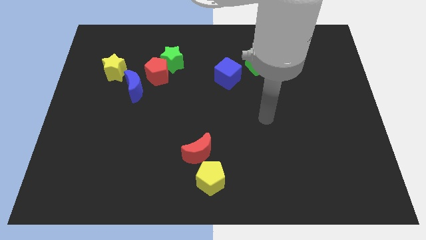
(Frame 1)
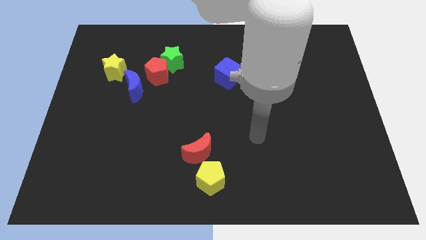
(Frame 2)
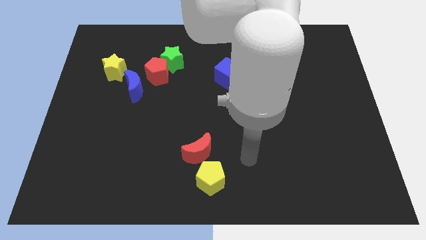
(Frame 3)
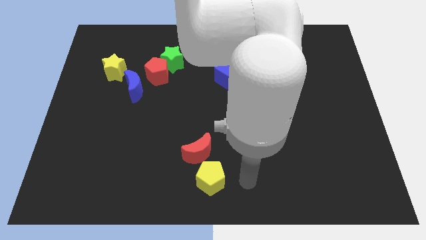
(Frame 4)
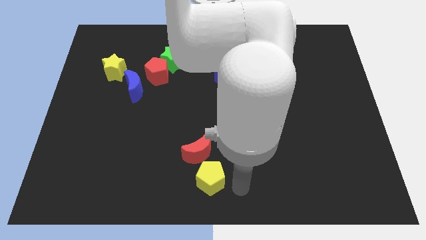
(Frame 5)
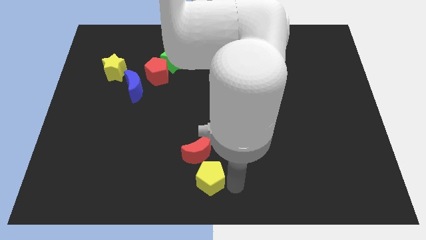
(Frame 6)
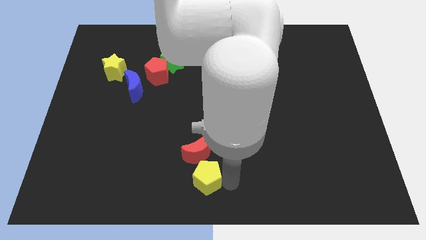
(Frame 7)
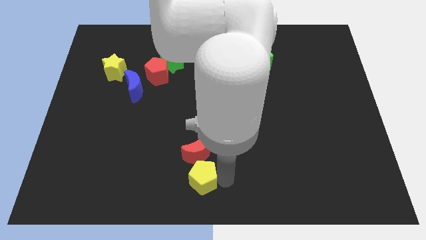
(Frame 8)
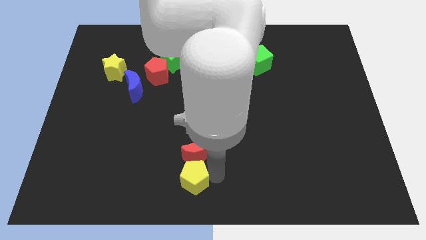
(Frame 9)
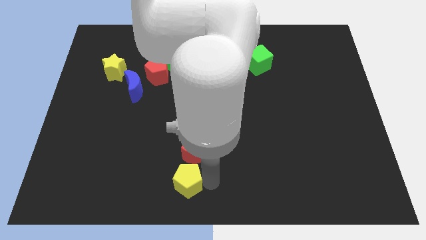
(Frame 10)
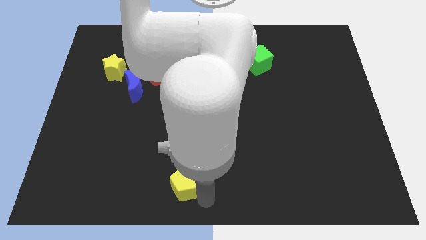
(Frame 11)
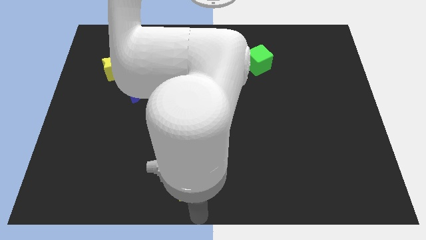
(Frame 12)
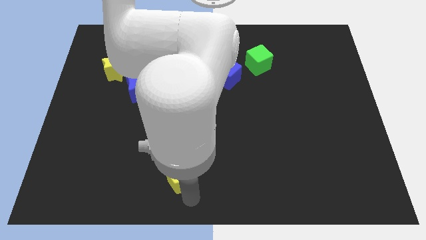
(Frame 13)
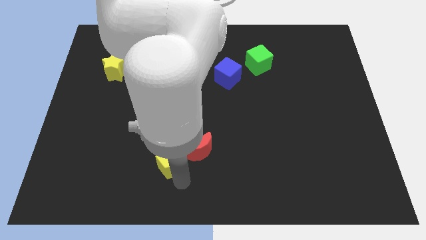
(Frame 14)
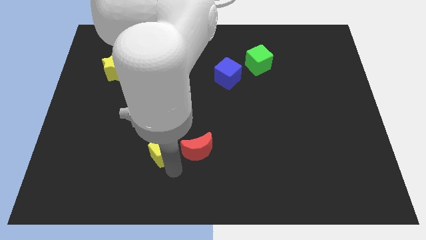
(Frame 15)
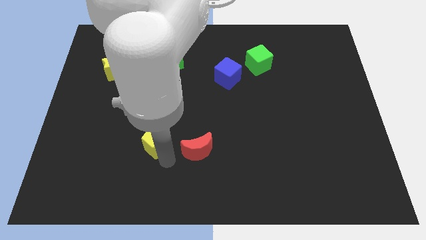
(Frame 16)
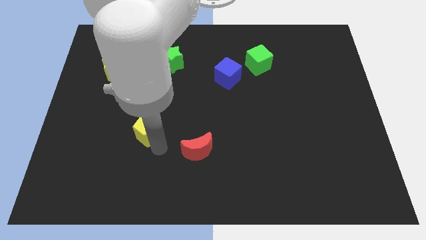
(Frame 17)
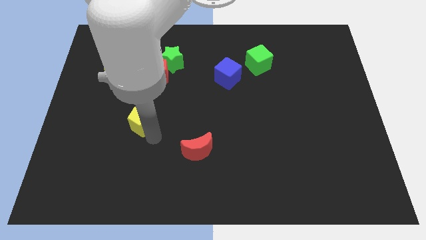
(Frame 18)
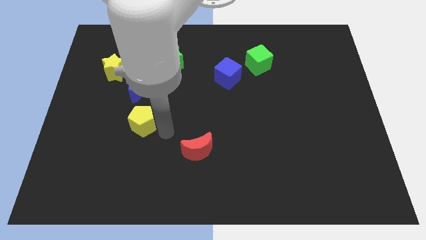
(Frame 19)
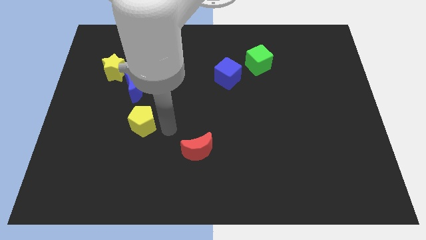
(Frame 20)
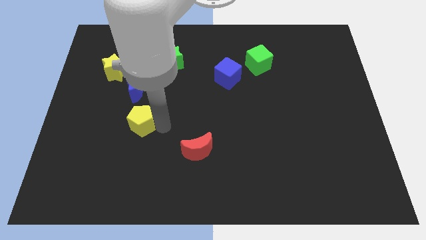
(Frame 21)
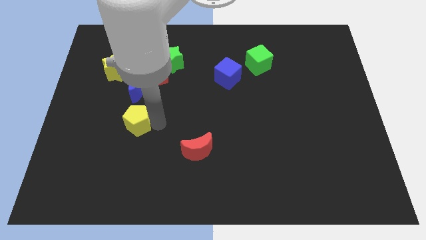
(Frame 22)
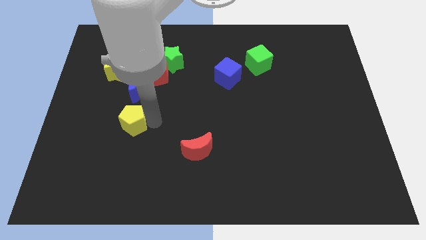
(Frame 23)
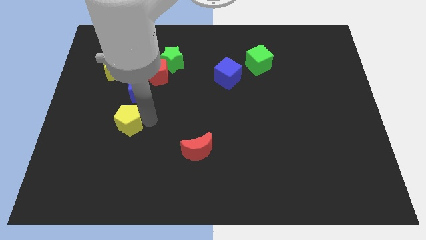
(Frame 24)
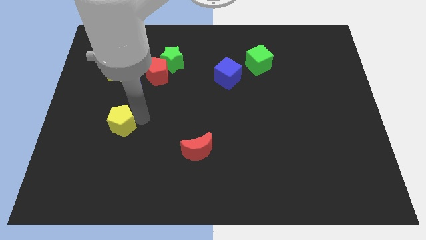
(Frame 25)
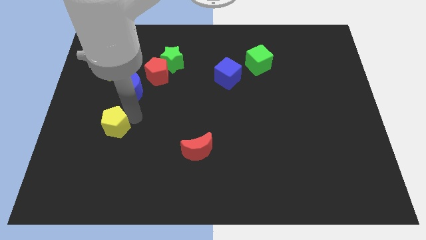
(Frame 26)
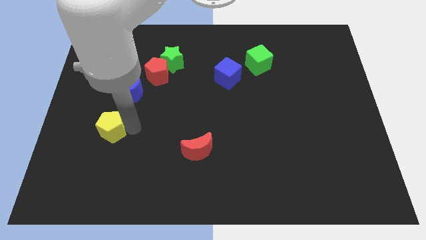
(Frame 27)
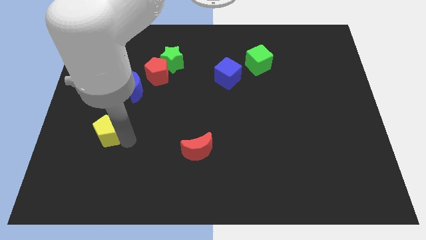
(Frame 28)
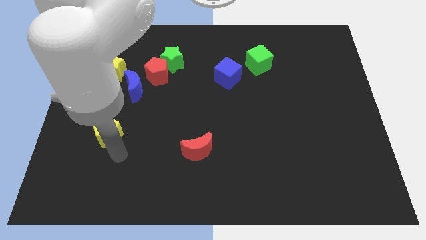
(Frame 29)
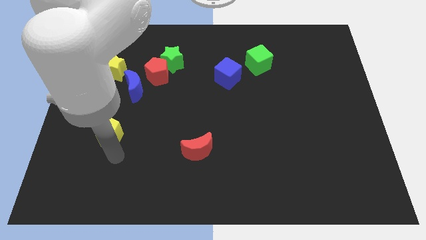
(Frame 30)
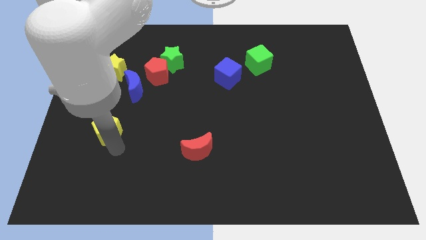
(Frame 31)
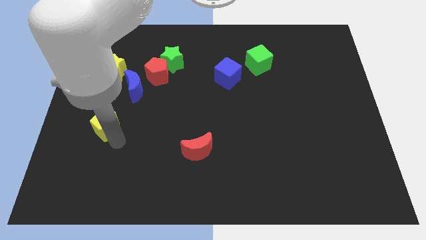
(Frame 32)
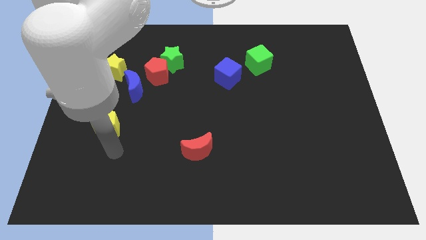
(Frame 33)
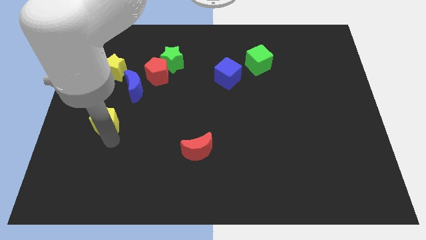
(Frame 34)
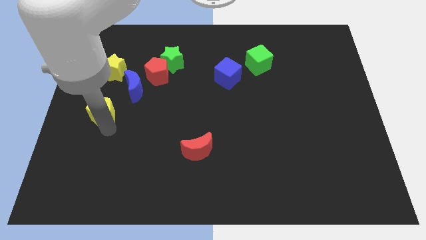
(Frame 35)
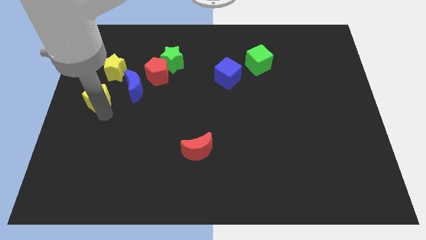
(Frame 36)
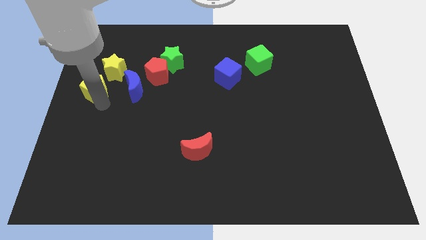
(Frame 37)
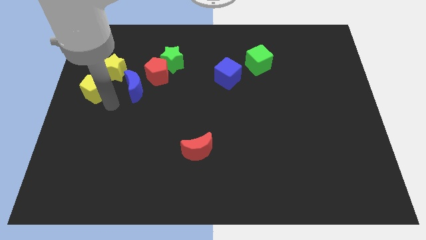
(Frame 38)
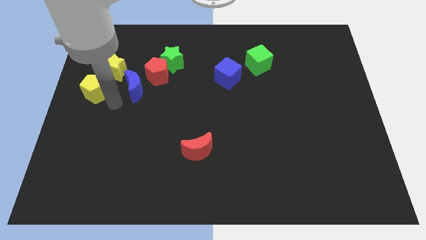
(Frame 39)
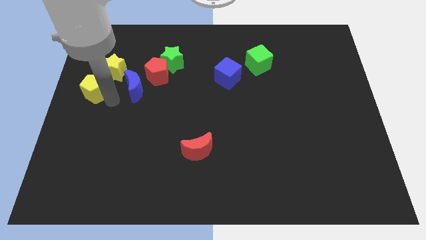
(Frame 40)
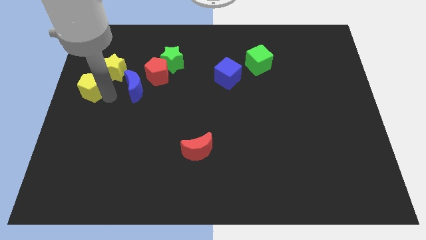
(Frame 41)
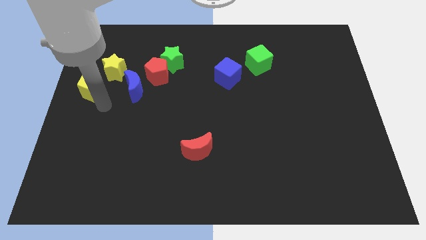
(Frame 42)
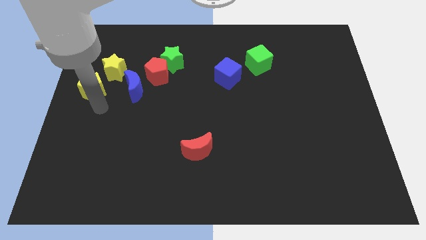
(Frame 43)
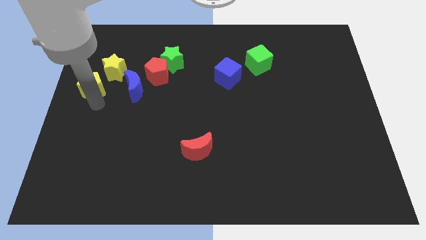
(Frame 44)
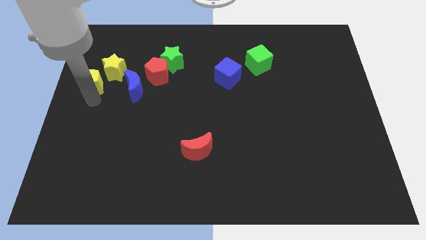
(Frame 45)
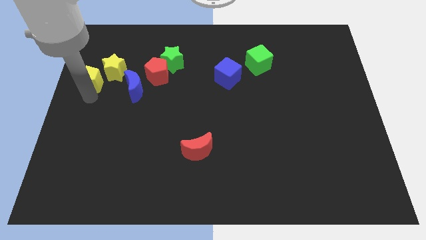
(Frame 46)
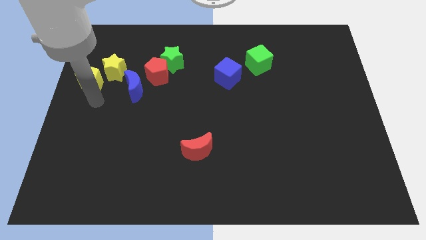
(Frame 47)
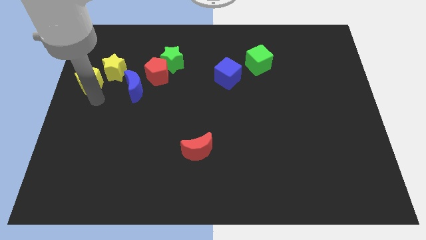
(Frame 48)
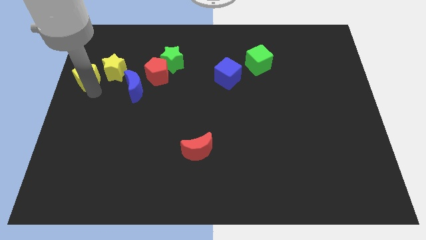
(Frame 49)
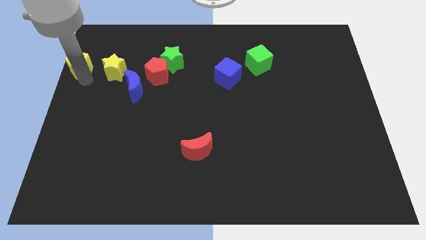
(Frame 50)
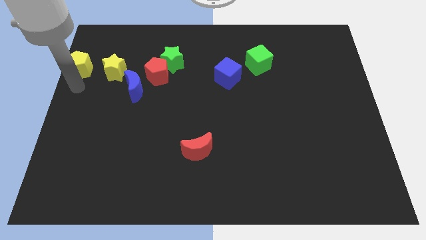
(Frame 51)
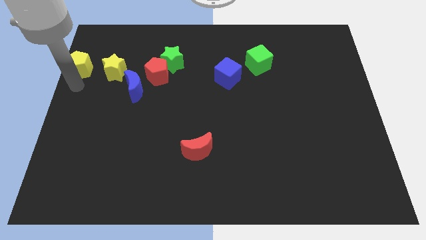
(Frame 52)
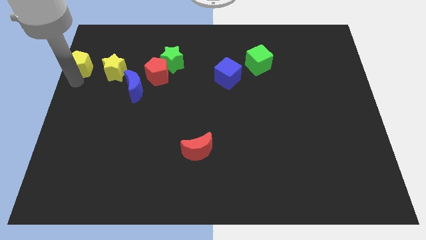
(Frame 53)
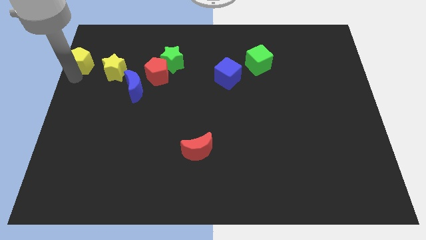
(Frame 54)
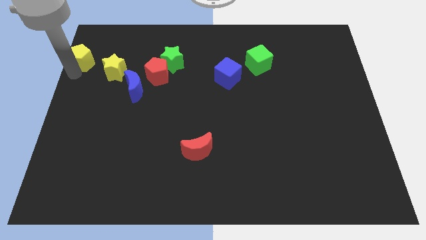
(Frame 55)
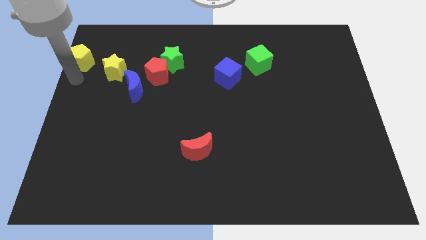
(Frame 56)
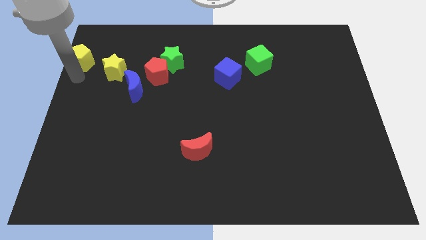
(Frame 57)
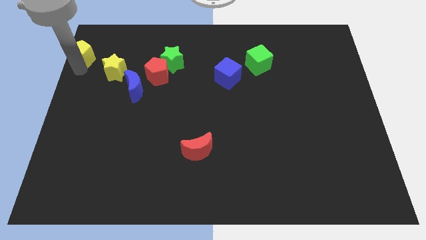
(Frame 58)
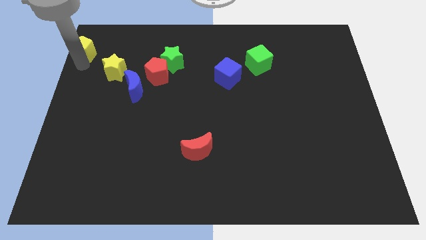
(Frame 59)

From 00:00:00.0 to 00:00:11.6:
push the yellow pentagon to the top left of the board
